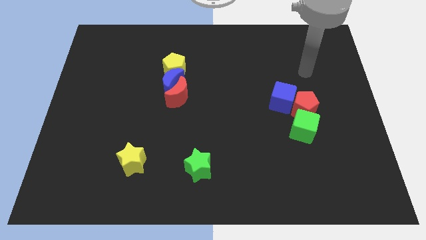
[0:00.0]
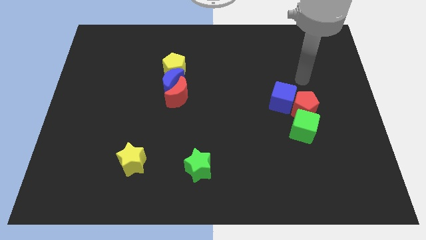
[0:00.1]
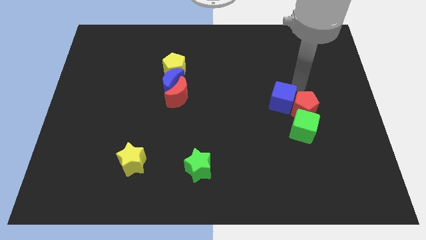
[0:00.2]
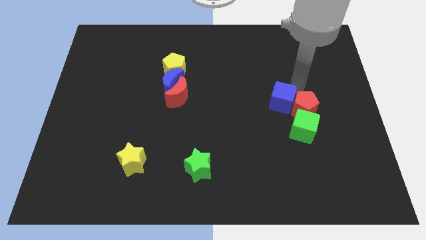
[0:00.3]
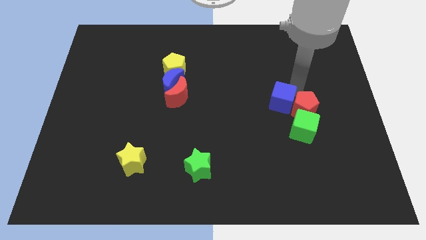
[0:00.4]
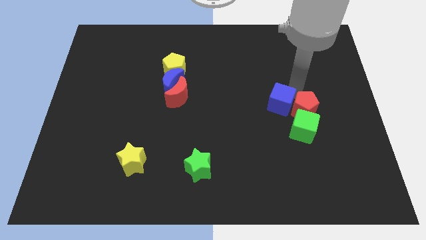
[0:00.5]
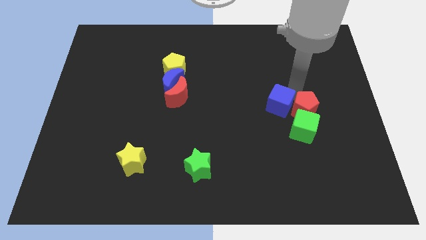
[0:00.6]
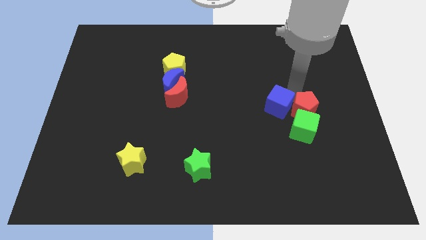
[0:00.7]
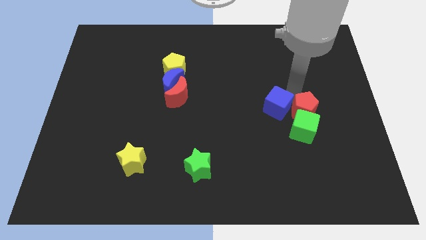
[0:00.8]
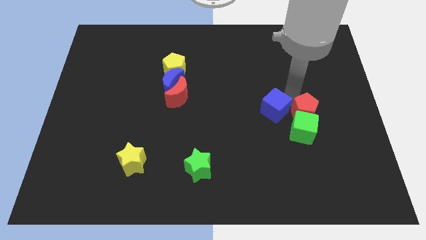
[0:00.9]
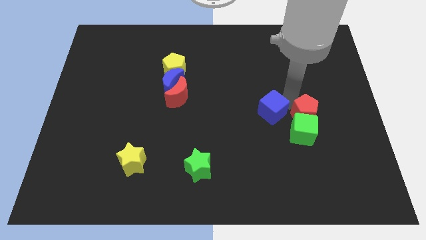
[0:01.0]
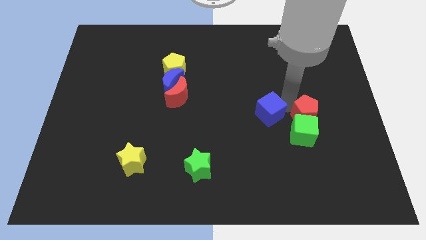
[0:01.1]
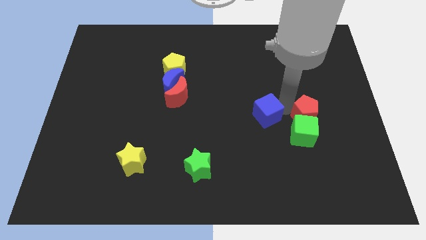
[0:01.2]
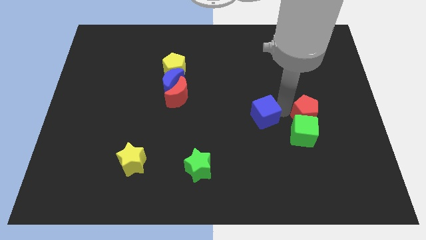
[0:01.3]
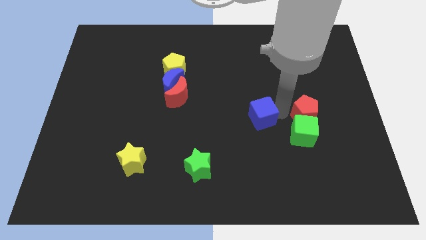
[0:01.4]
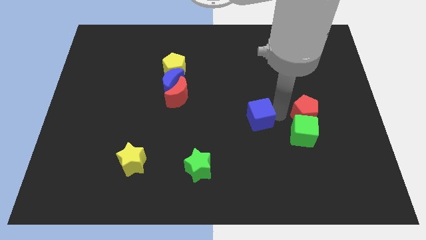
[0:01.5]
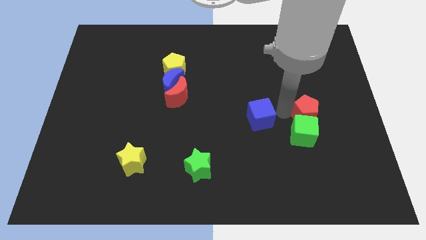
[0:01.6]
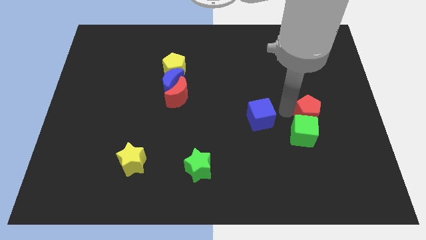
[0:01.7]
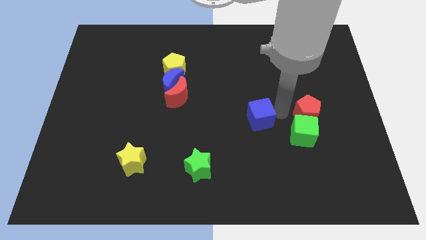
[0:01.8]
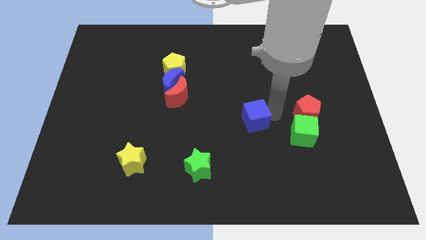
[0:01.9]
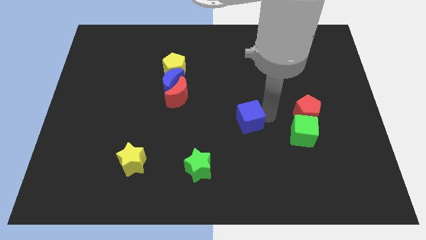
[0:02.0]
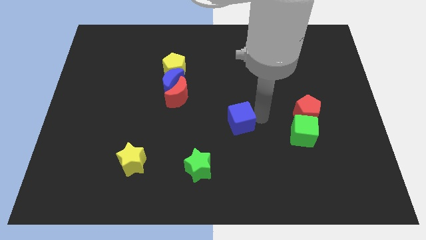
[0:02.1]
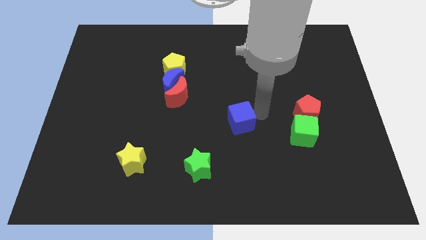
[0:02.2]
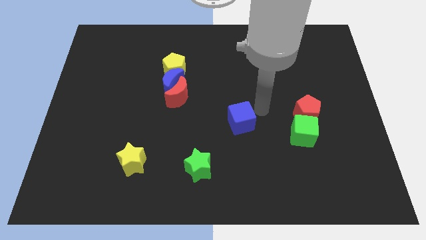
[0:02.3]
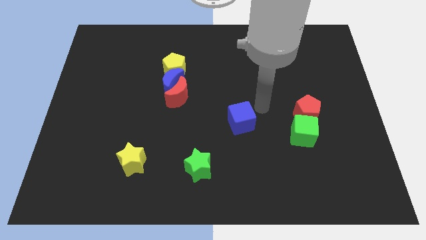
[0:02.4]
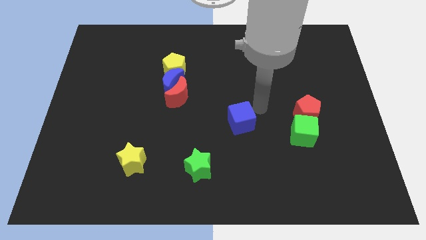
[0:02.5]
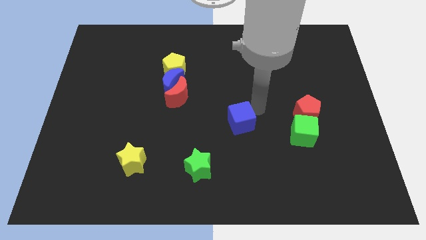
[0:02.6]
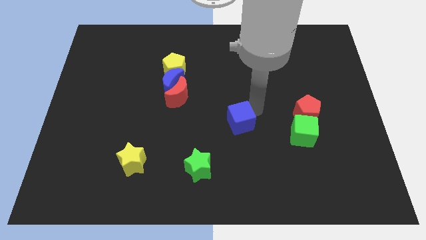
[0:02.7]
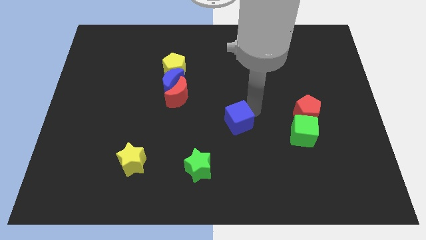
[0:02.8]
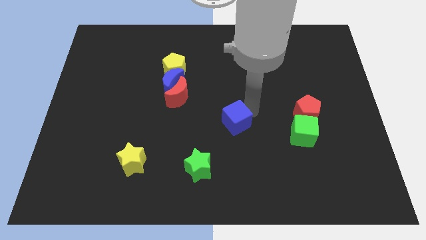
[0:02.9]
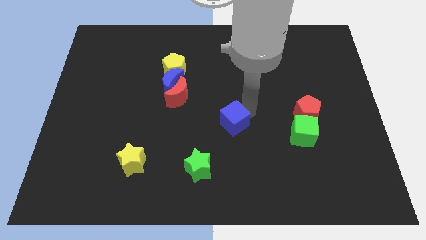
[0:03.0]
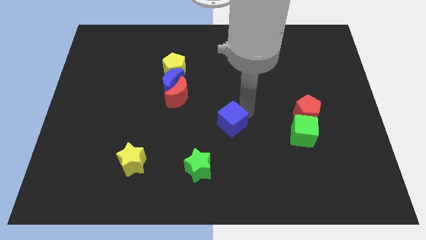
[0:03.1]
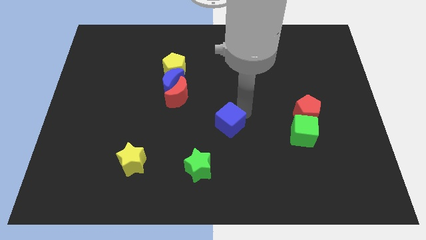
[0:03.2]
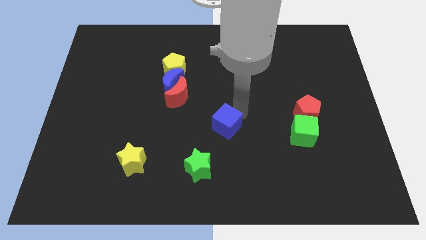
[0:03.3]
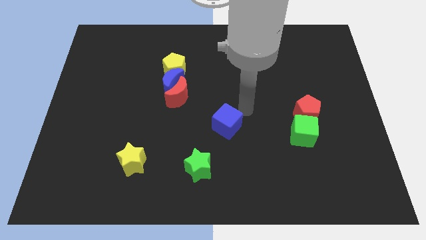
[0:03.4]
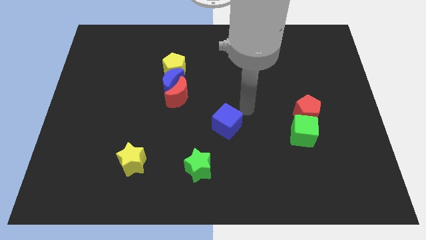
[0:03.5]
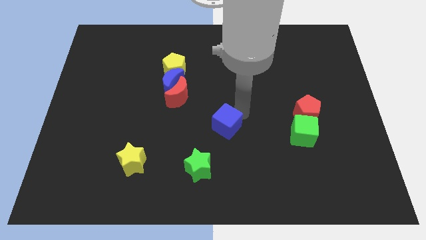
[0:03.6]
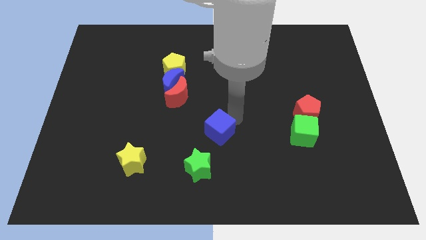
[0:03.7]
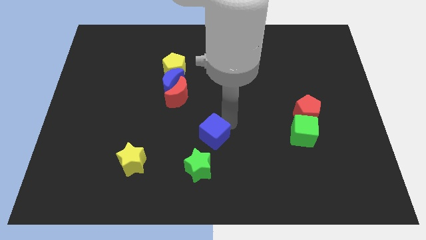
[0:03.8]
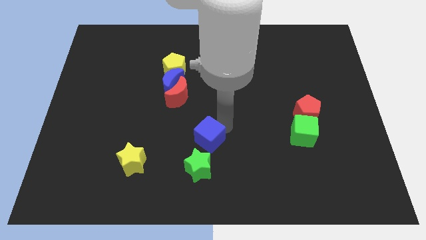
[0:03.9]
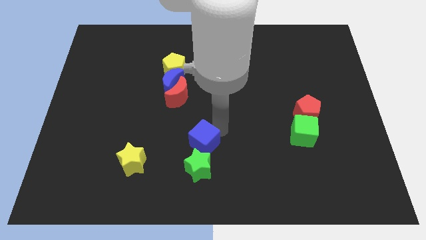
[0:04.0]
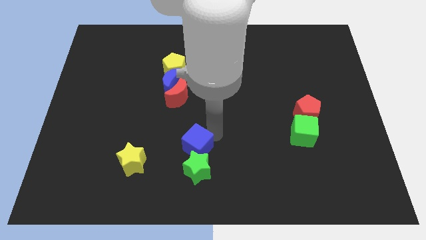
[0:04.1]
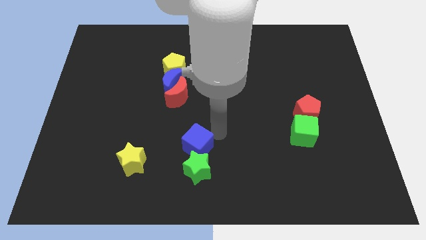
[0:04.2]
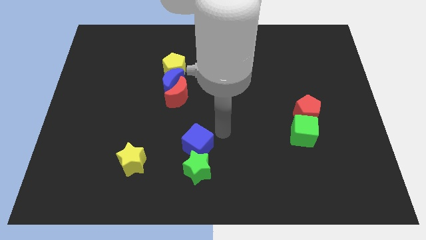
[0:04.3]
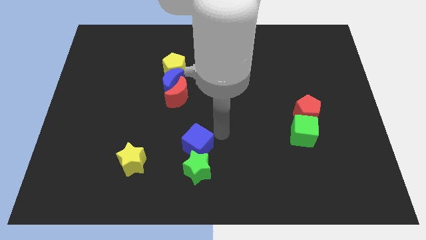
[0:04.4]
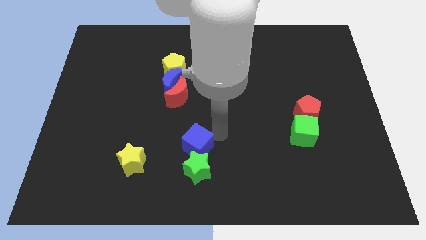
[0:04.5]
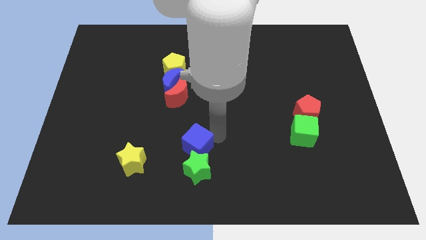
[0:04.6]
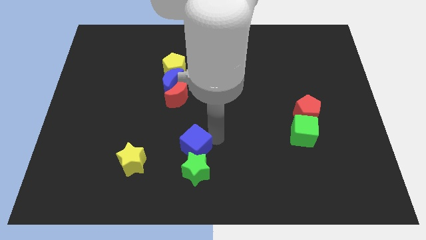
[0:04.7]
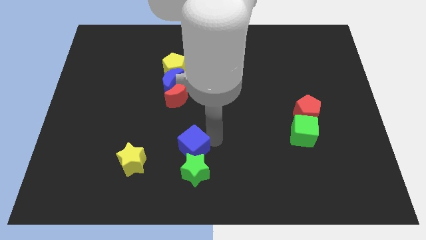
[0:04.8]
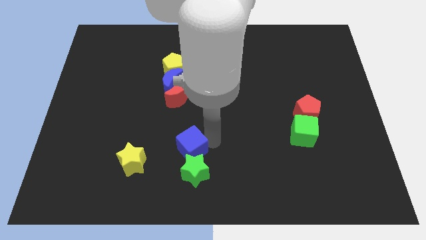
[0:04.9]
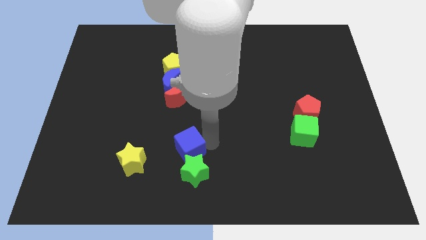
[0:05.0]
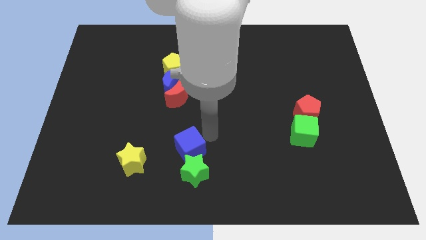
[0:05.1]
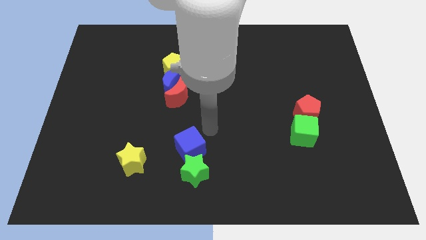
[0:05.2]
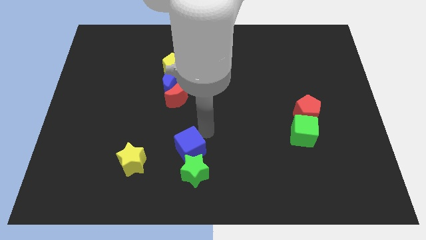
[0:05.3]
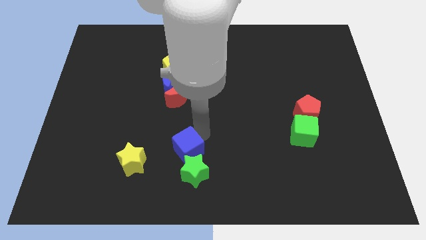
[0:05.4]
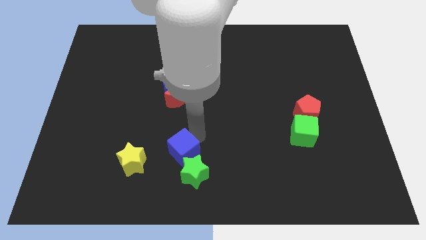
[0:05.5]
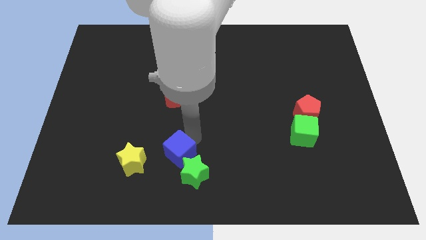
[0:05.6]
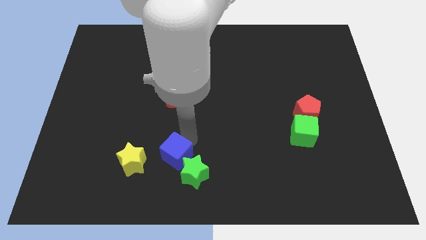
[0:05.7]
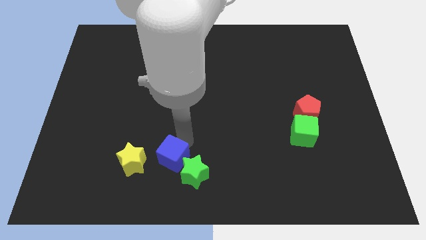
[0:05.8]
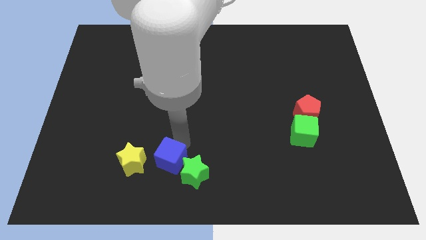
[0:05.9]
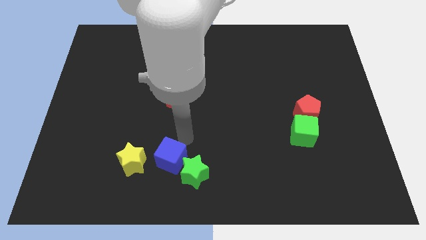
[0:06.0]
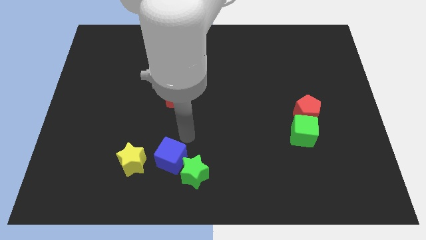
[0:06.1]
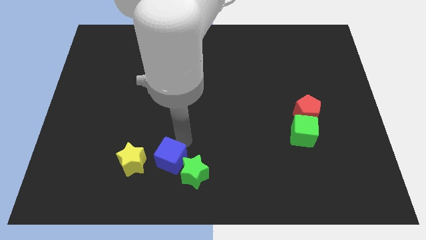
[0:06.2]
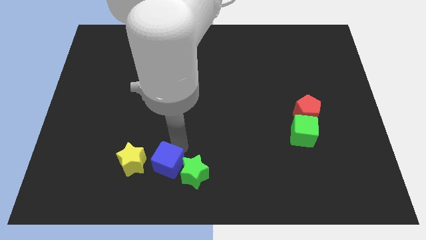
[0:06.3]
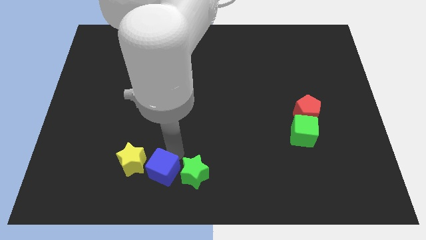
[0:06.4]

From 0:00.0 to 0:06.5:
put the blue cube to the bottom right side of the yellow star

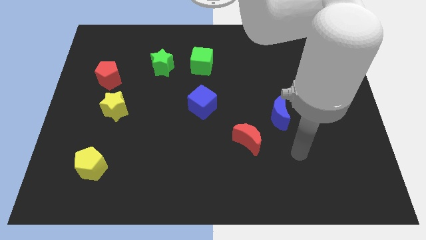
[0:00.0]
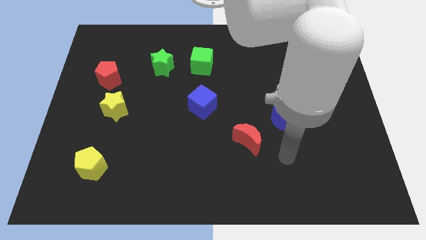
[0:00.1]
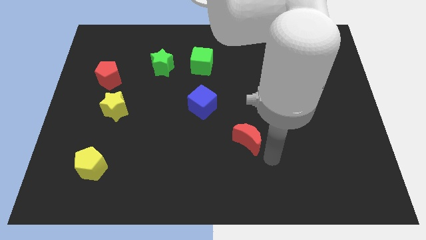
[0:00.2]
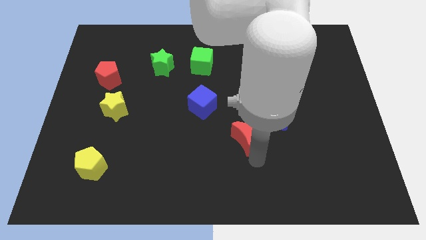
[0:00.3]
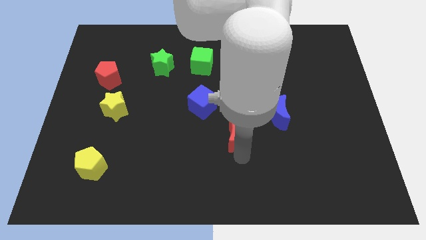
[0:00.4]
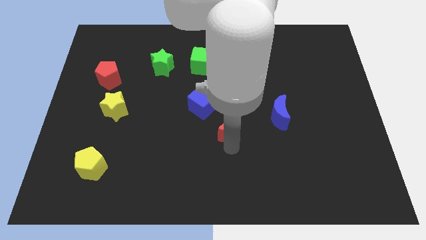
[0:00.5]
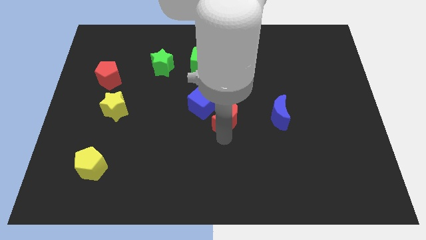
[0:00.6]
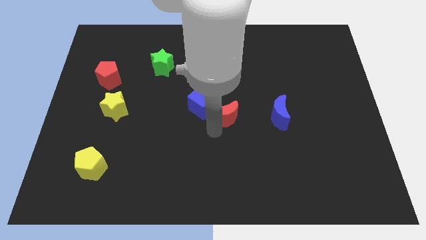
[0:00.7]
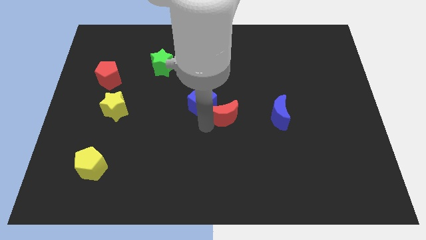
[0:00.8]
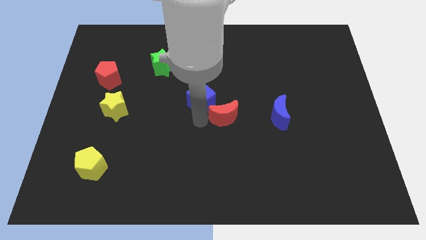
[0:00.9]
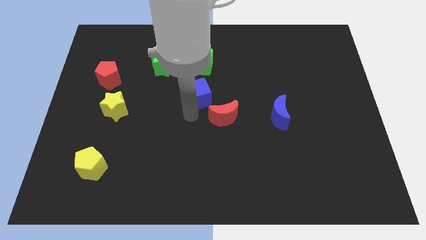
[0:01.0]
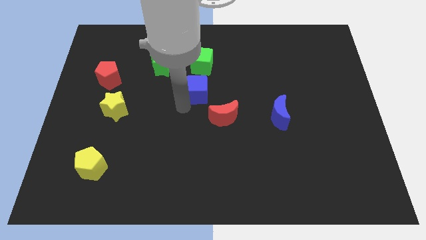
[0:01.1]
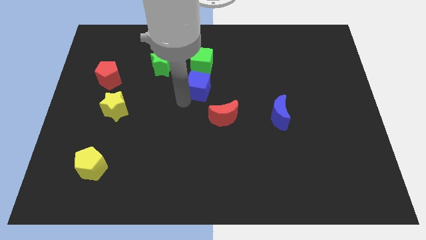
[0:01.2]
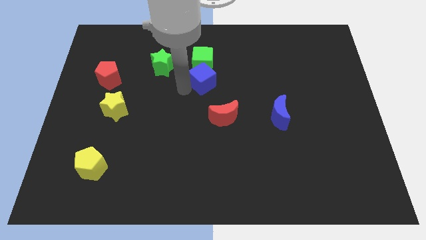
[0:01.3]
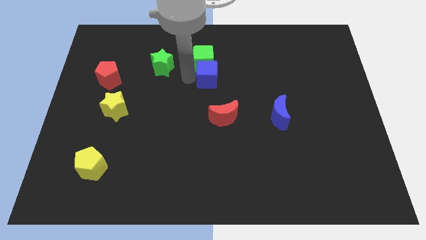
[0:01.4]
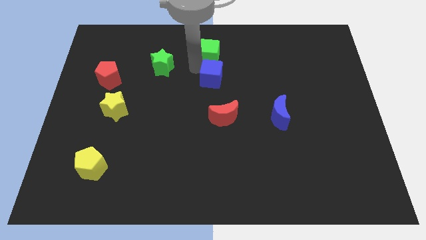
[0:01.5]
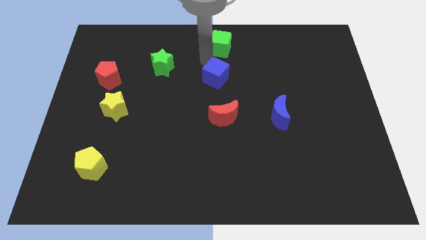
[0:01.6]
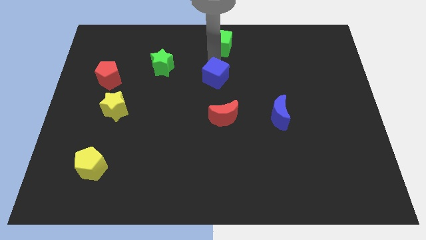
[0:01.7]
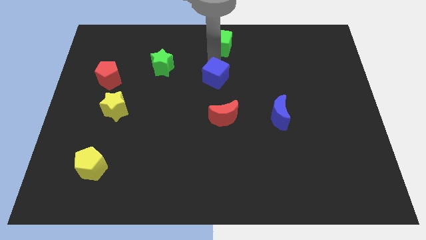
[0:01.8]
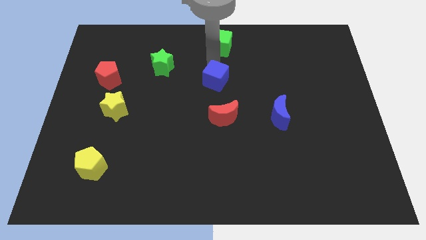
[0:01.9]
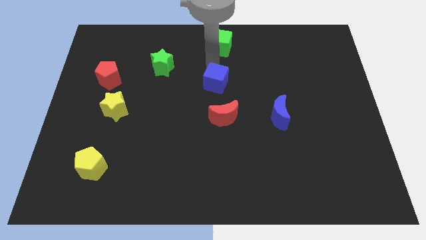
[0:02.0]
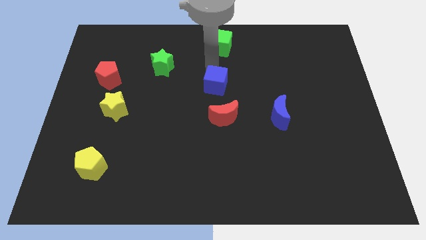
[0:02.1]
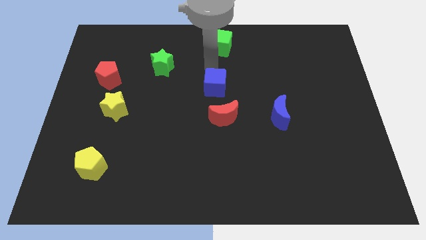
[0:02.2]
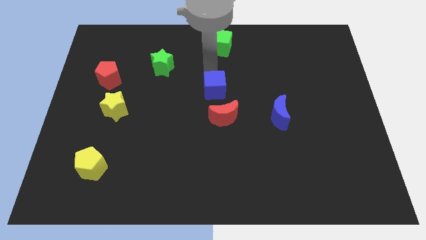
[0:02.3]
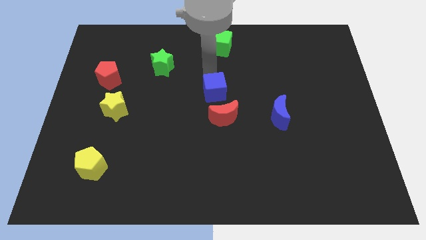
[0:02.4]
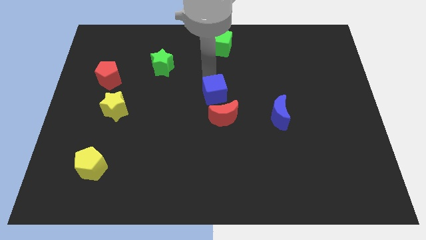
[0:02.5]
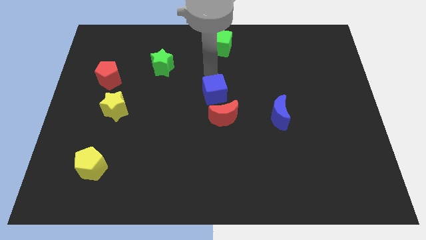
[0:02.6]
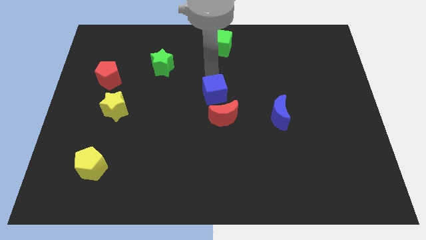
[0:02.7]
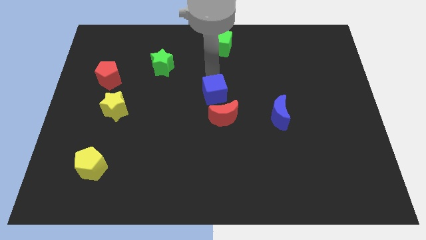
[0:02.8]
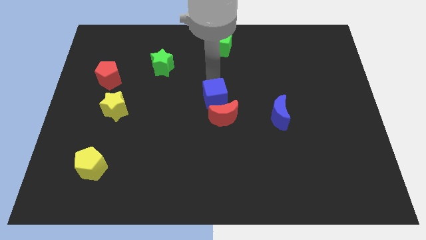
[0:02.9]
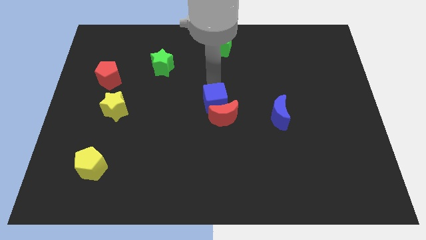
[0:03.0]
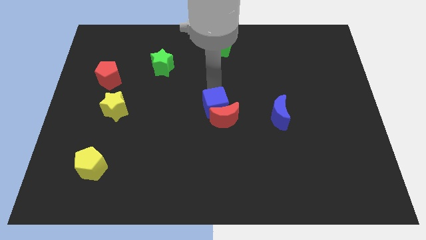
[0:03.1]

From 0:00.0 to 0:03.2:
move the blue cube left of the blue moon
